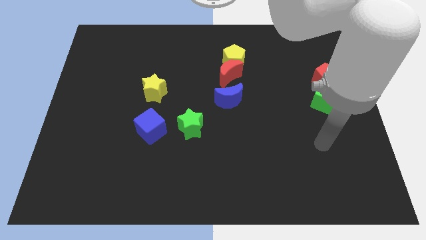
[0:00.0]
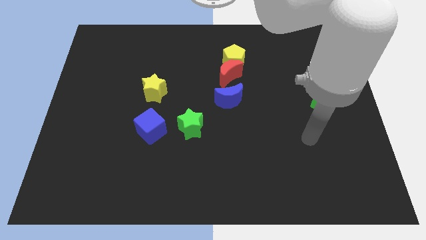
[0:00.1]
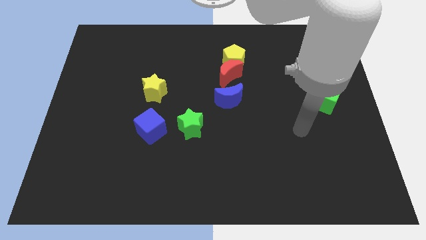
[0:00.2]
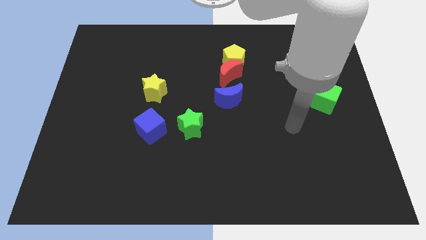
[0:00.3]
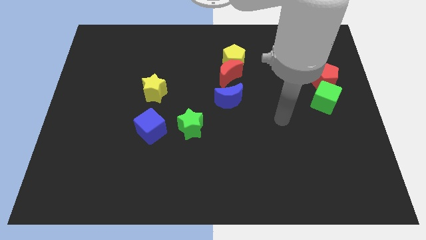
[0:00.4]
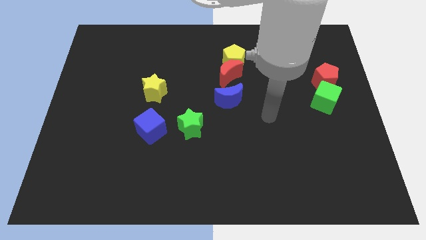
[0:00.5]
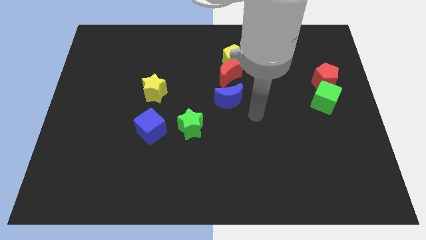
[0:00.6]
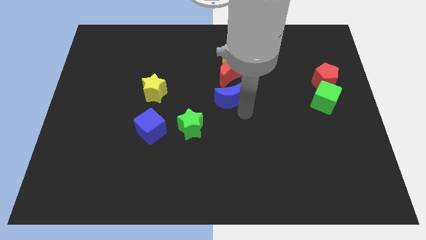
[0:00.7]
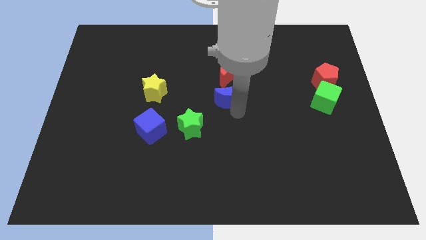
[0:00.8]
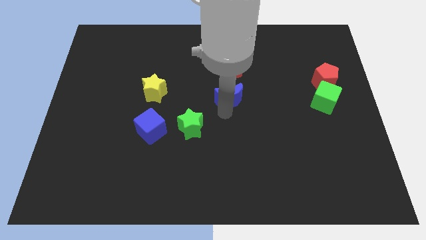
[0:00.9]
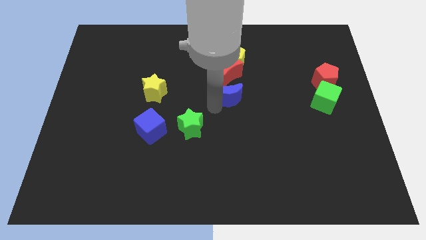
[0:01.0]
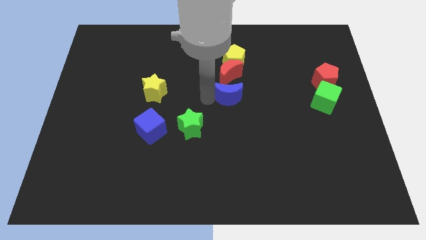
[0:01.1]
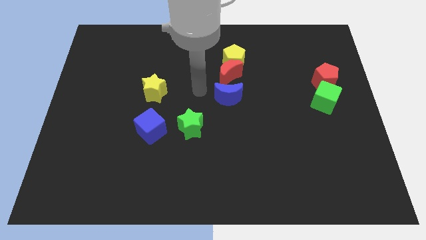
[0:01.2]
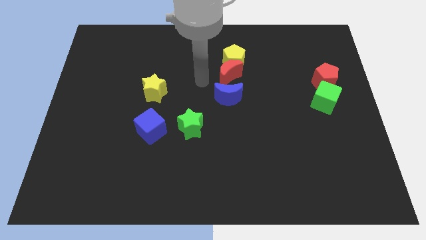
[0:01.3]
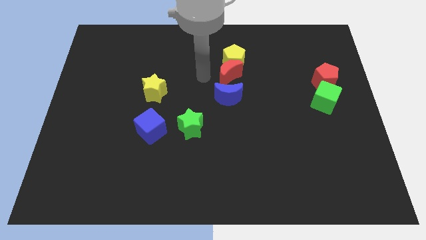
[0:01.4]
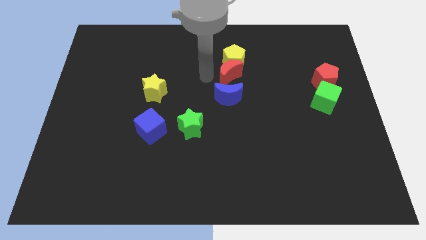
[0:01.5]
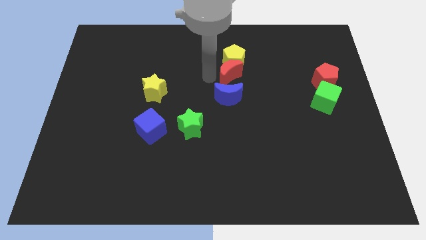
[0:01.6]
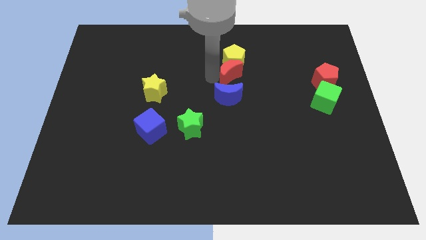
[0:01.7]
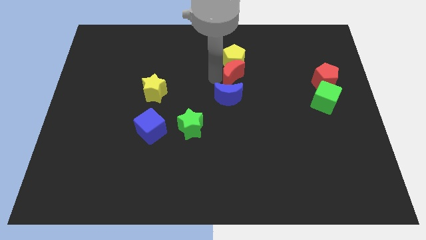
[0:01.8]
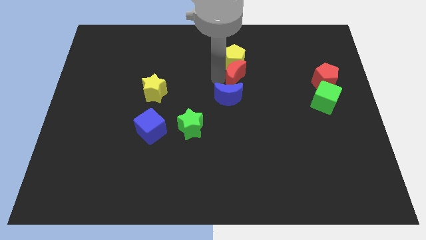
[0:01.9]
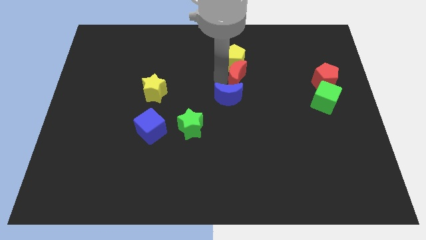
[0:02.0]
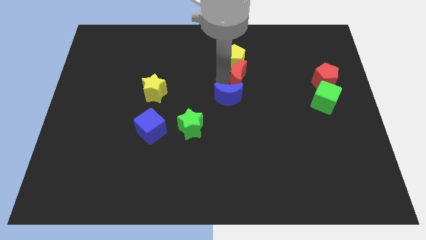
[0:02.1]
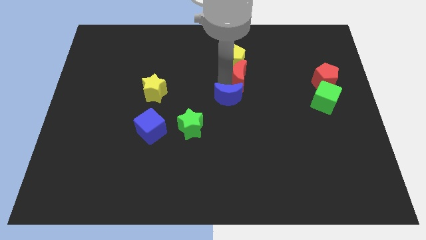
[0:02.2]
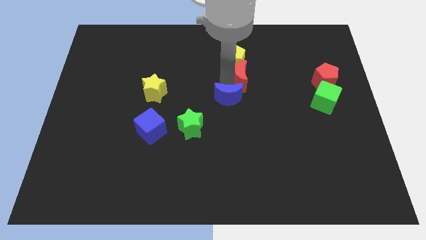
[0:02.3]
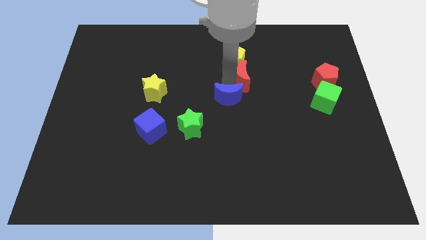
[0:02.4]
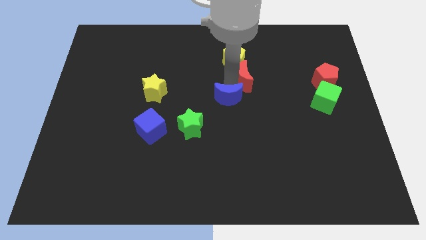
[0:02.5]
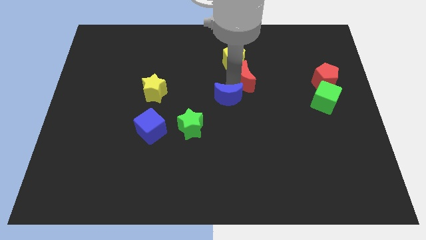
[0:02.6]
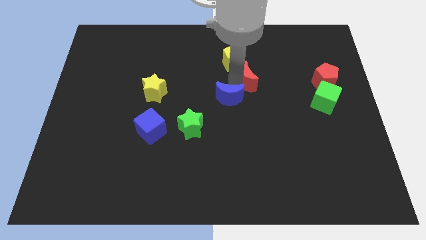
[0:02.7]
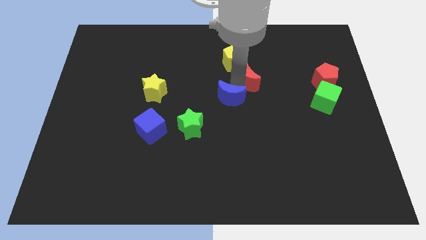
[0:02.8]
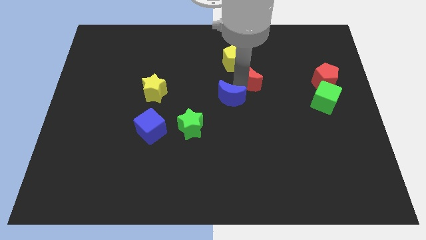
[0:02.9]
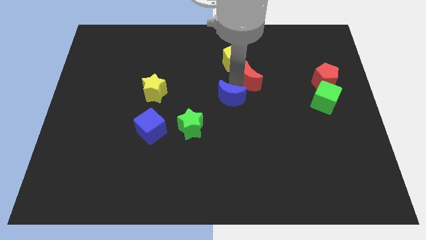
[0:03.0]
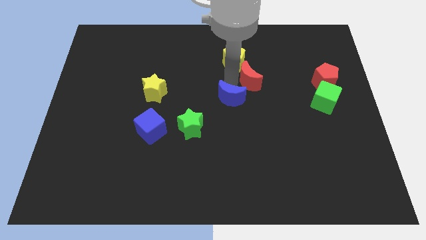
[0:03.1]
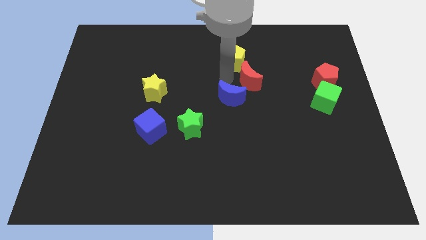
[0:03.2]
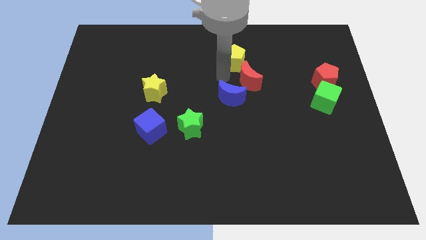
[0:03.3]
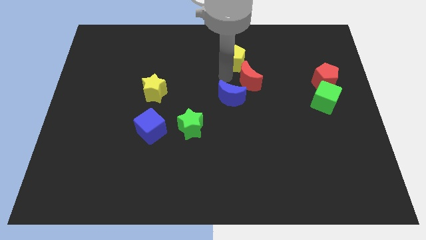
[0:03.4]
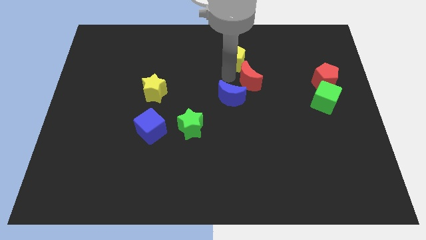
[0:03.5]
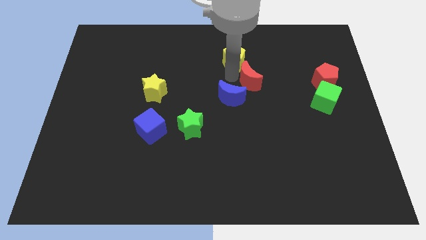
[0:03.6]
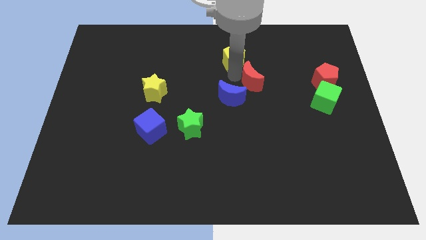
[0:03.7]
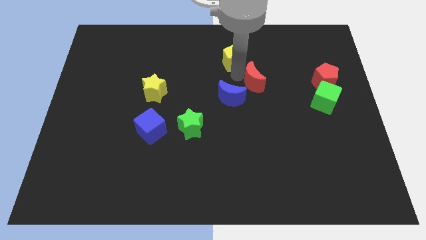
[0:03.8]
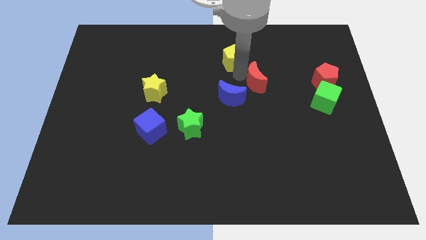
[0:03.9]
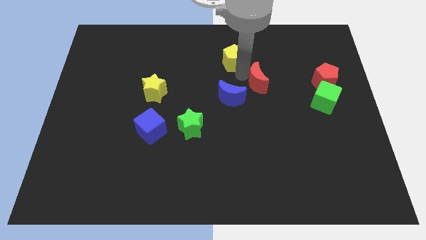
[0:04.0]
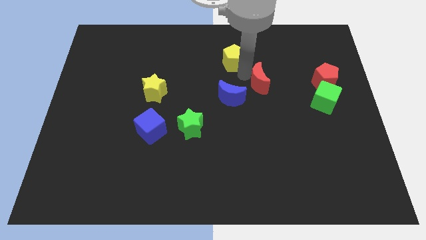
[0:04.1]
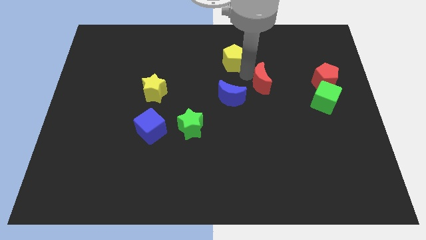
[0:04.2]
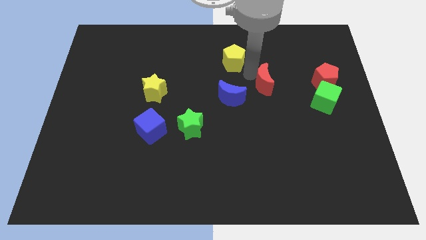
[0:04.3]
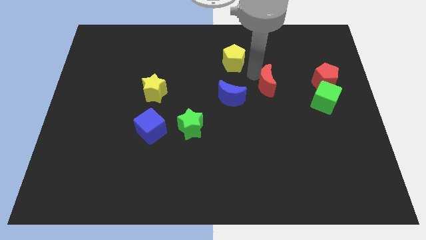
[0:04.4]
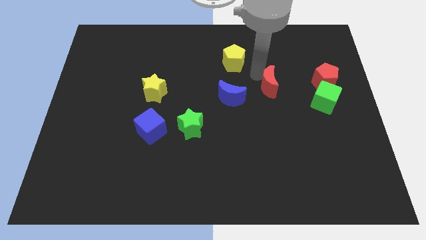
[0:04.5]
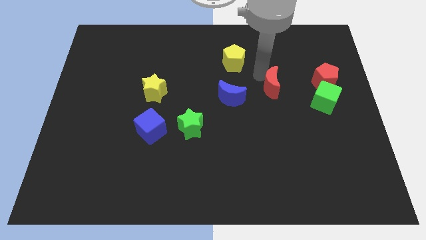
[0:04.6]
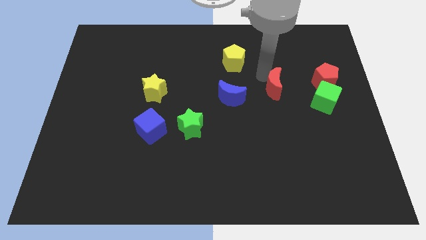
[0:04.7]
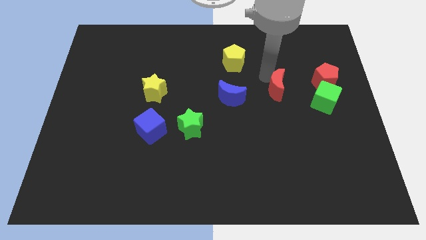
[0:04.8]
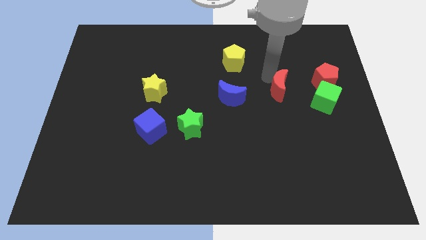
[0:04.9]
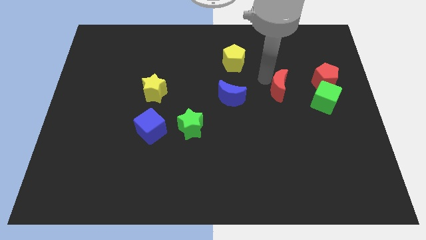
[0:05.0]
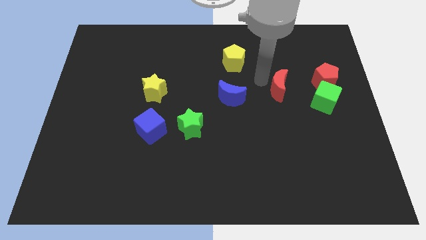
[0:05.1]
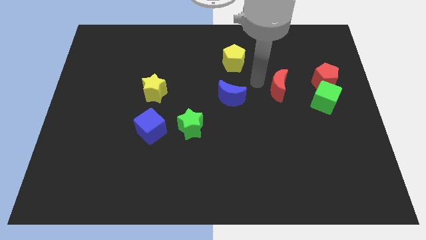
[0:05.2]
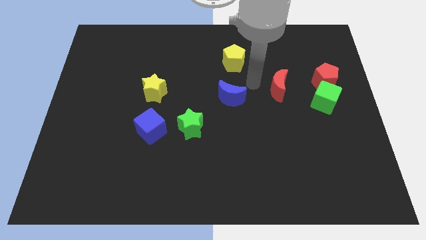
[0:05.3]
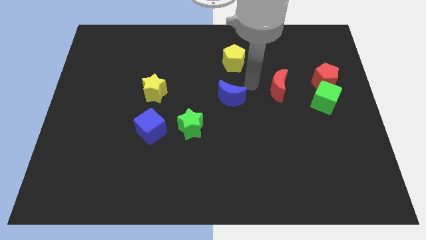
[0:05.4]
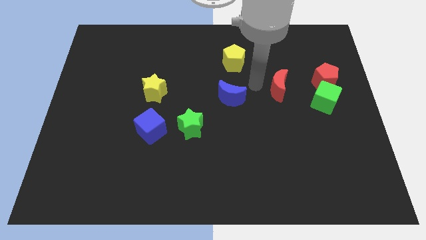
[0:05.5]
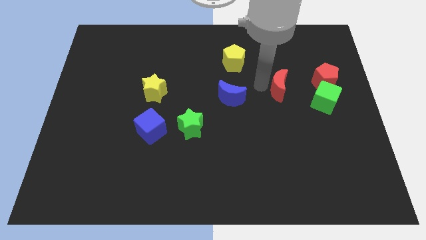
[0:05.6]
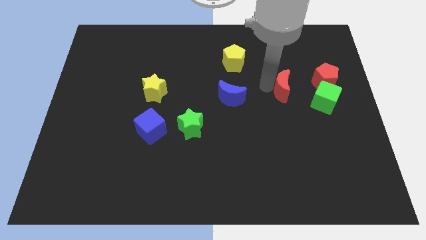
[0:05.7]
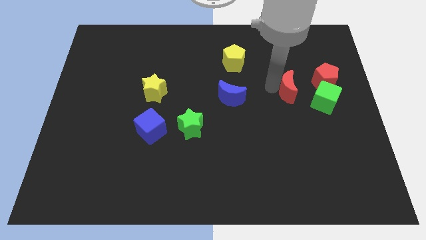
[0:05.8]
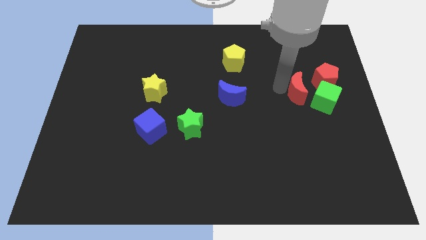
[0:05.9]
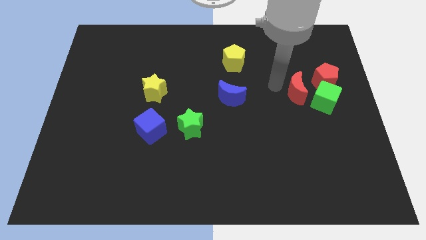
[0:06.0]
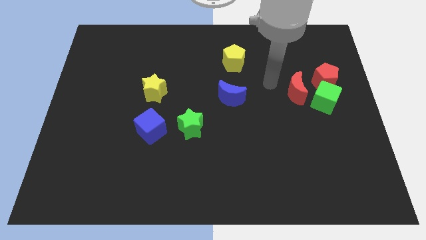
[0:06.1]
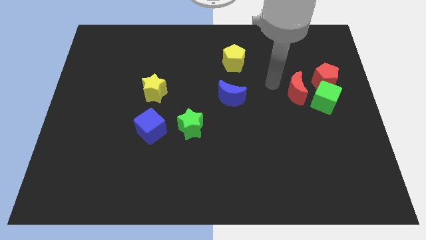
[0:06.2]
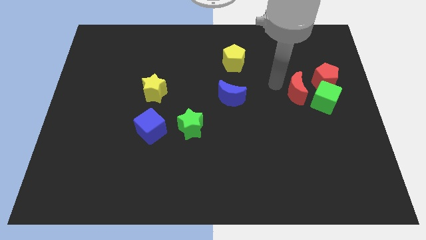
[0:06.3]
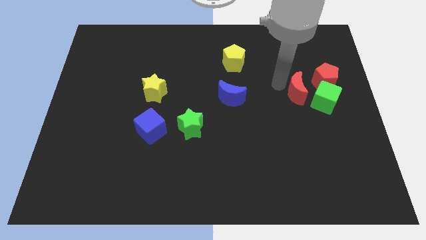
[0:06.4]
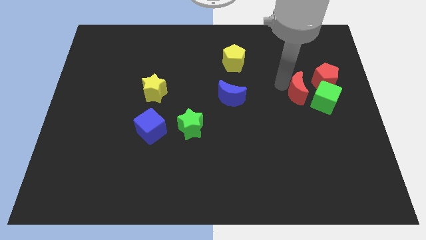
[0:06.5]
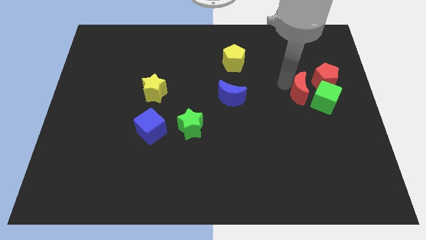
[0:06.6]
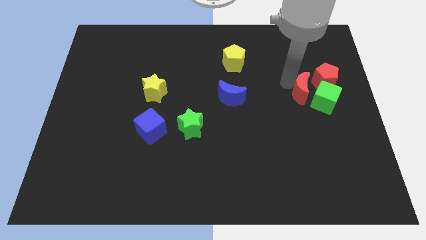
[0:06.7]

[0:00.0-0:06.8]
move the red moon close to the green cube
